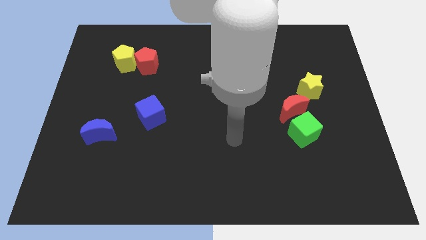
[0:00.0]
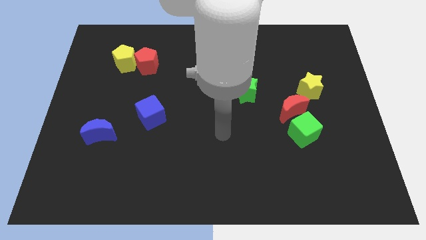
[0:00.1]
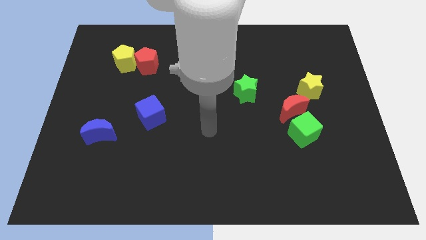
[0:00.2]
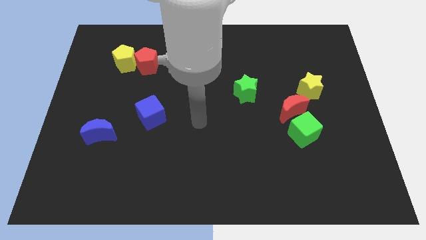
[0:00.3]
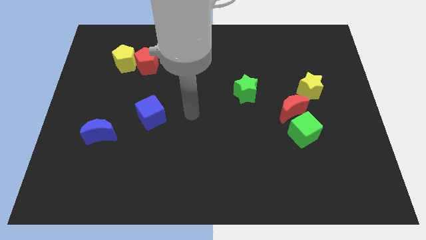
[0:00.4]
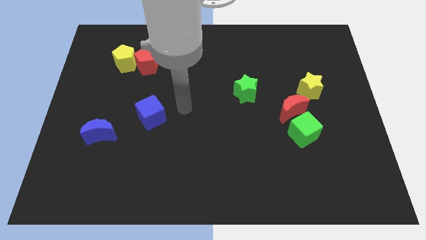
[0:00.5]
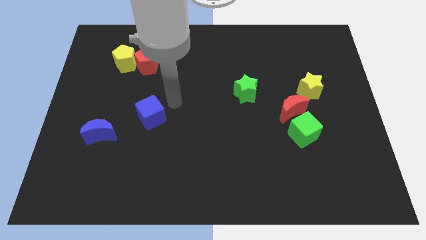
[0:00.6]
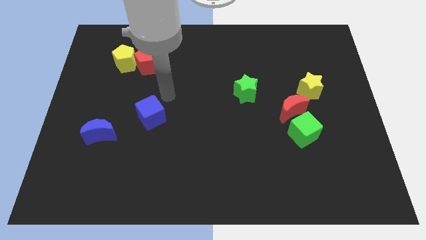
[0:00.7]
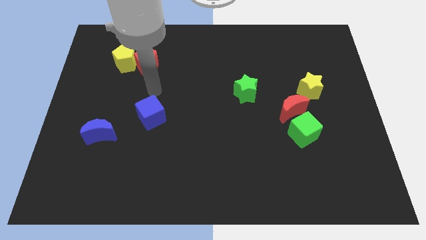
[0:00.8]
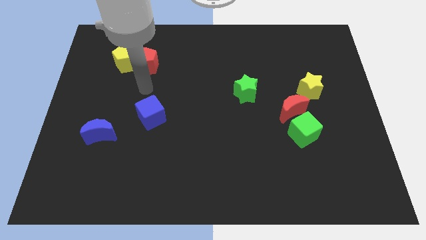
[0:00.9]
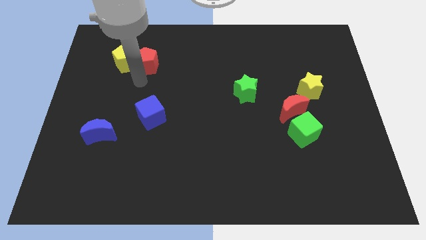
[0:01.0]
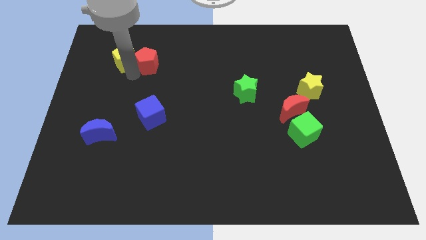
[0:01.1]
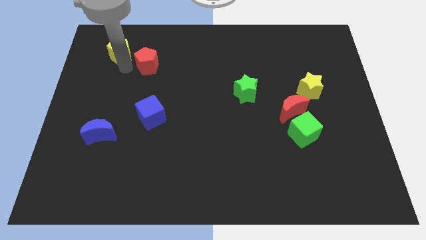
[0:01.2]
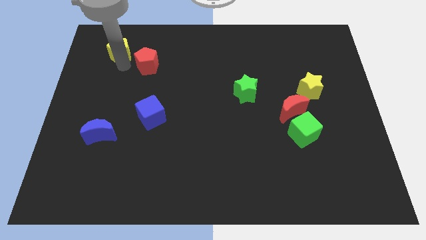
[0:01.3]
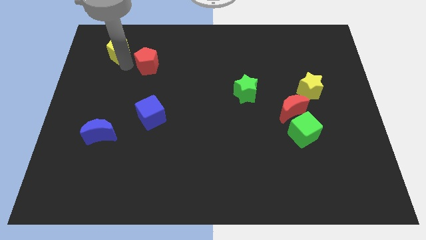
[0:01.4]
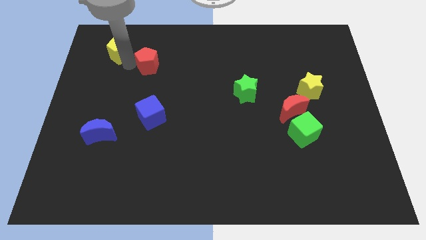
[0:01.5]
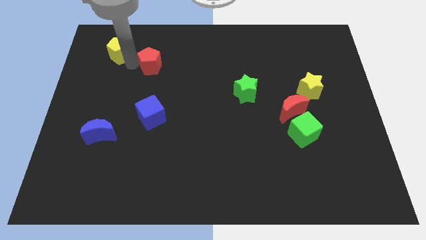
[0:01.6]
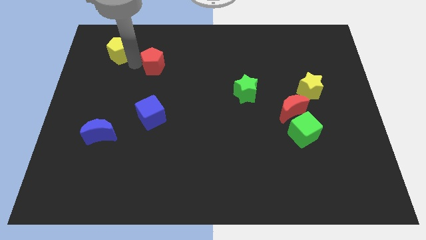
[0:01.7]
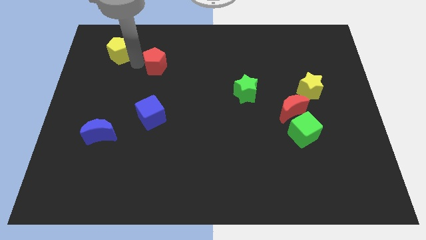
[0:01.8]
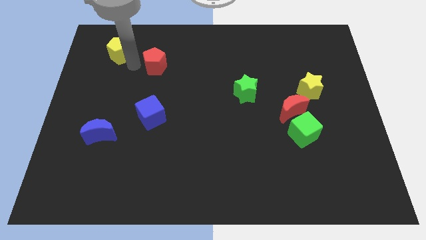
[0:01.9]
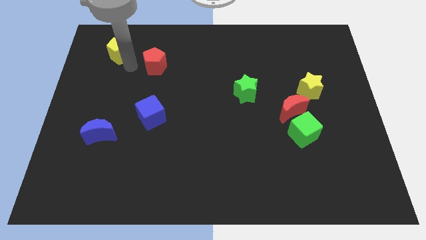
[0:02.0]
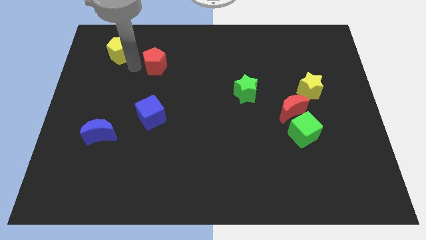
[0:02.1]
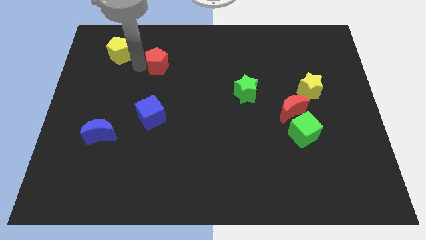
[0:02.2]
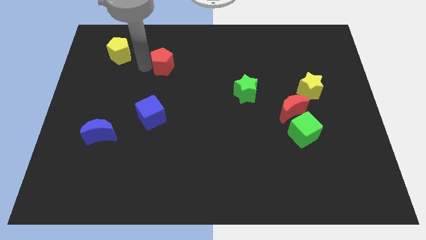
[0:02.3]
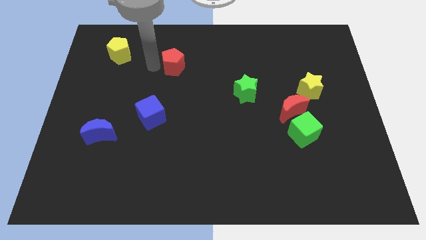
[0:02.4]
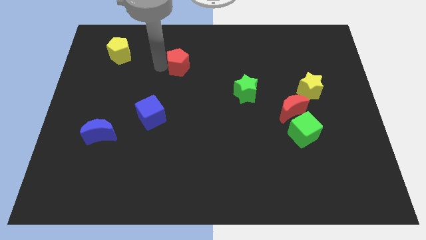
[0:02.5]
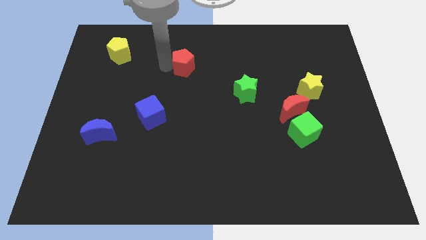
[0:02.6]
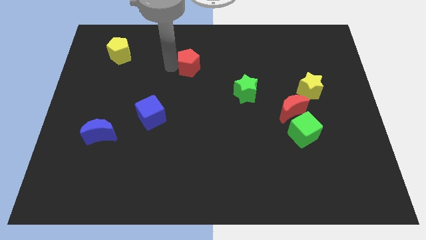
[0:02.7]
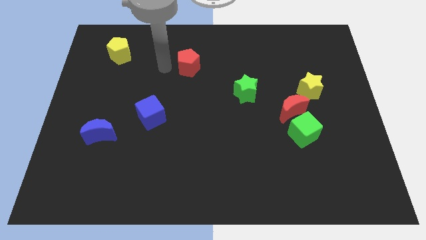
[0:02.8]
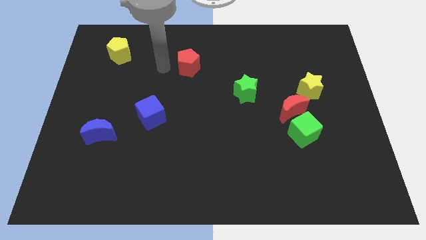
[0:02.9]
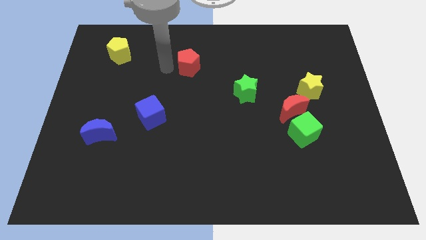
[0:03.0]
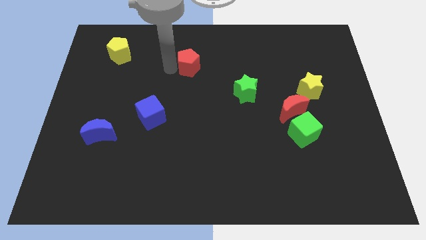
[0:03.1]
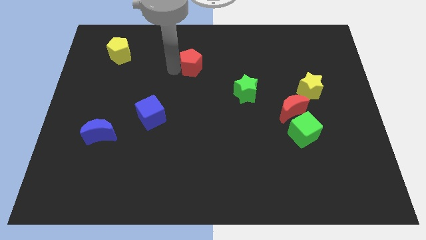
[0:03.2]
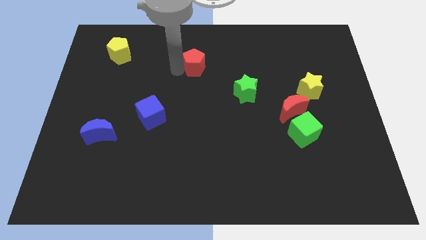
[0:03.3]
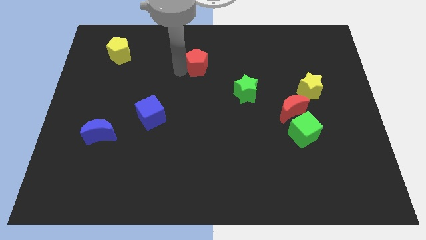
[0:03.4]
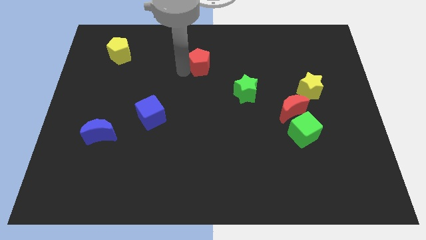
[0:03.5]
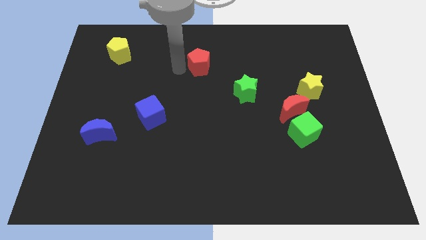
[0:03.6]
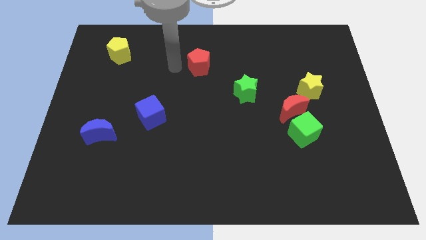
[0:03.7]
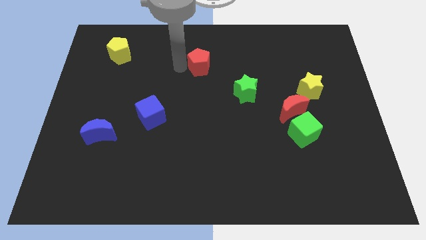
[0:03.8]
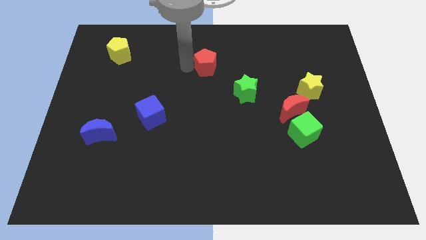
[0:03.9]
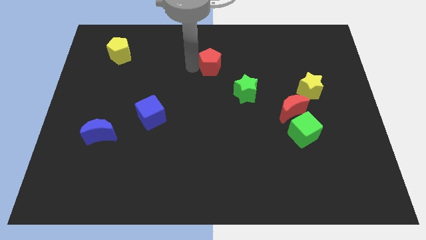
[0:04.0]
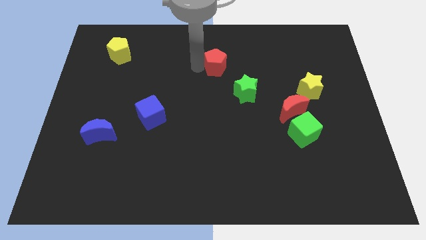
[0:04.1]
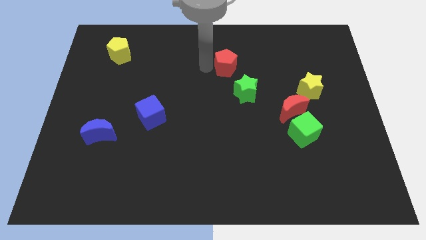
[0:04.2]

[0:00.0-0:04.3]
slide the red pentagon right

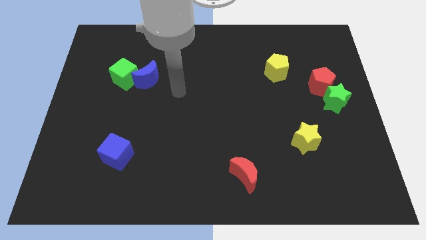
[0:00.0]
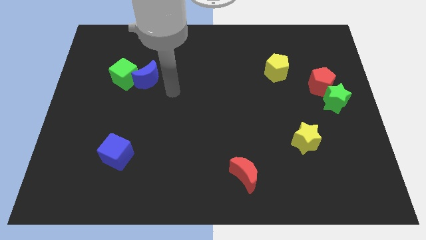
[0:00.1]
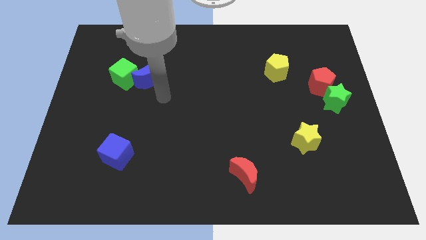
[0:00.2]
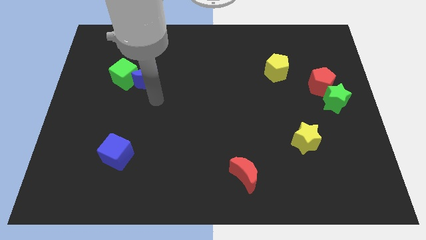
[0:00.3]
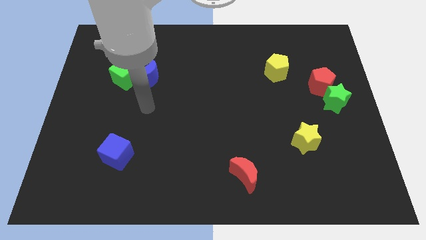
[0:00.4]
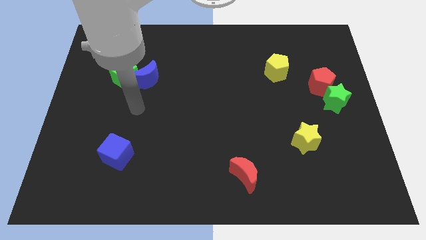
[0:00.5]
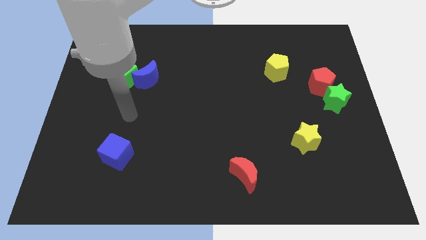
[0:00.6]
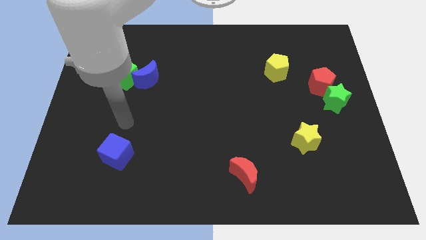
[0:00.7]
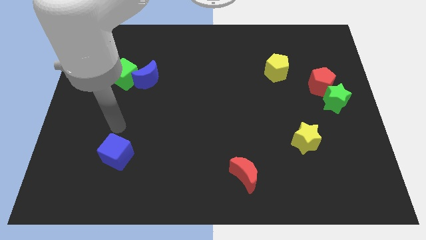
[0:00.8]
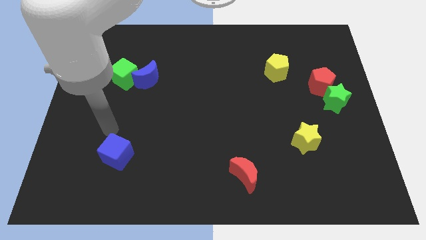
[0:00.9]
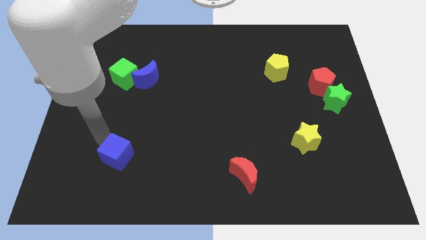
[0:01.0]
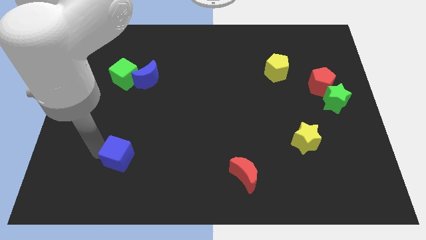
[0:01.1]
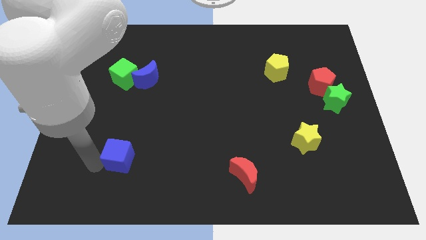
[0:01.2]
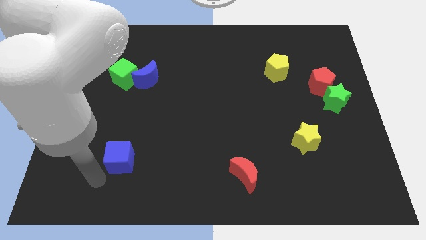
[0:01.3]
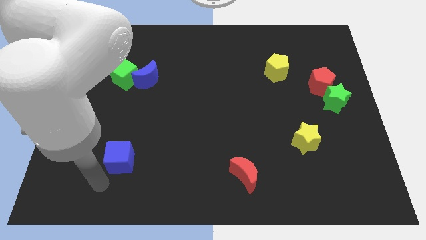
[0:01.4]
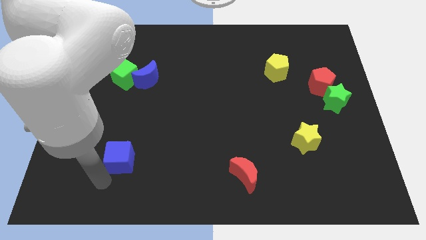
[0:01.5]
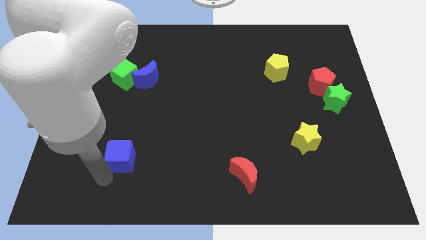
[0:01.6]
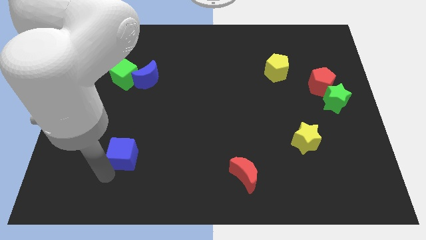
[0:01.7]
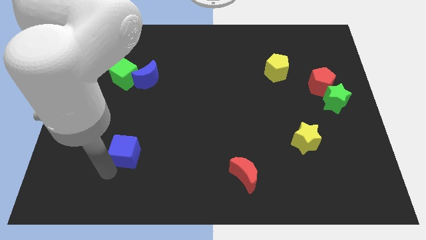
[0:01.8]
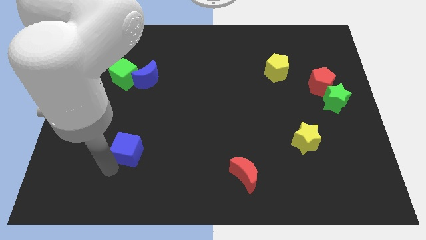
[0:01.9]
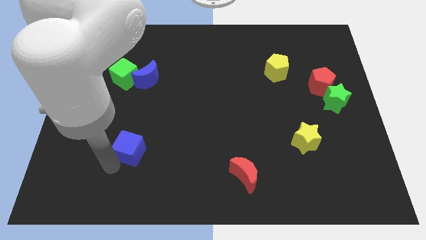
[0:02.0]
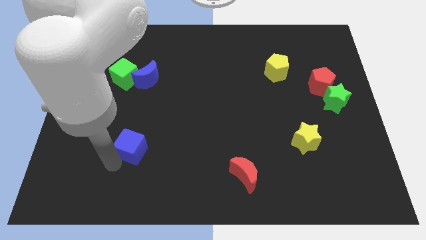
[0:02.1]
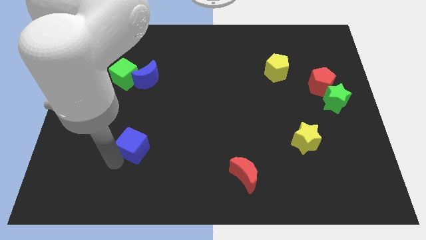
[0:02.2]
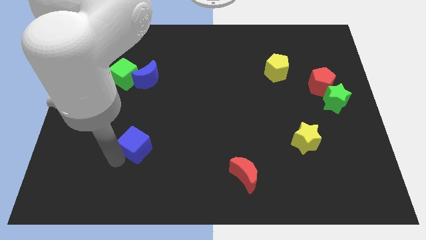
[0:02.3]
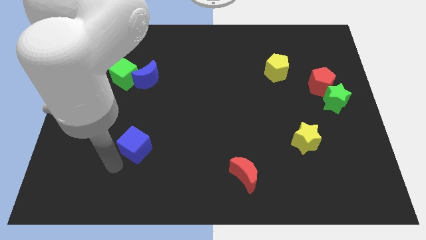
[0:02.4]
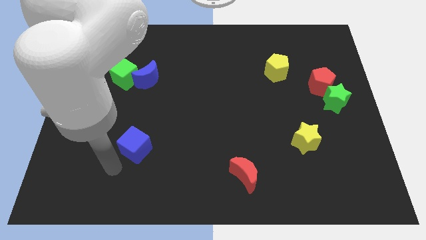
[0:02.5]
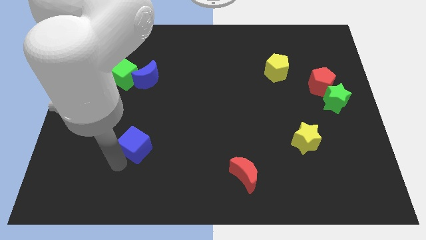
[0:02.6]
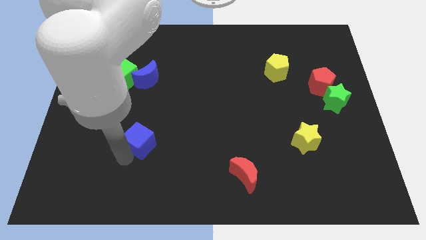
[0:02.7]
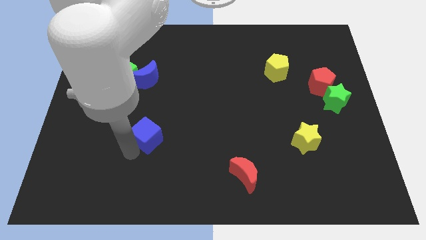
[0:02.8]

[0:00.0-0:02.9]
slide the blue cube a bit up and then right

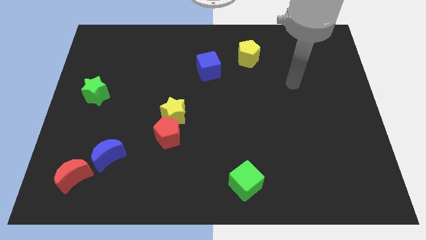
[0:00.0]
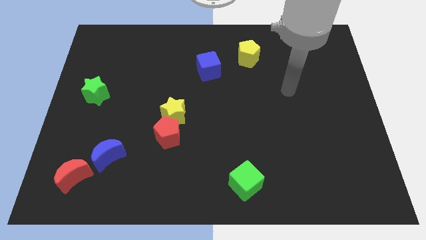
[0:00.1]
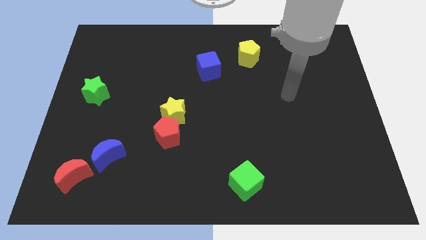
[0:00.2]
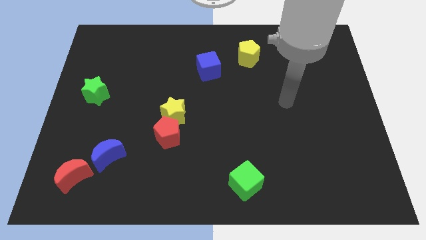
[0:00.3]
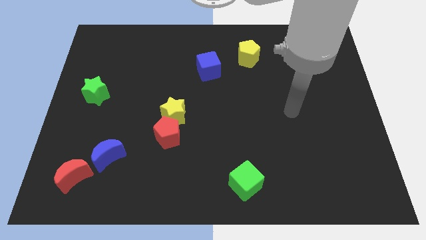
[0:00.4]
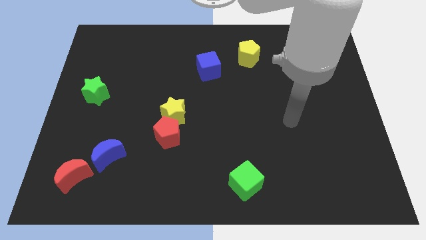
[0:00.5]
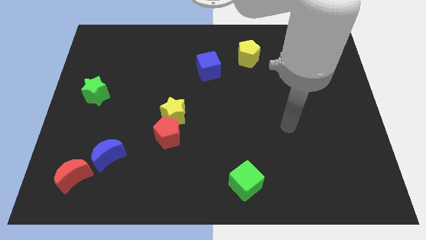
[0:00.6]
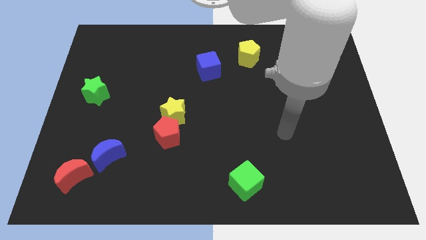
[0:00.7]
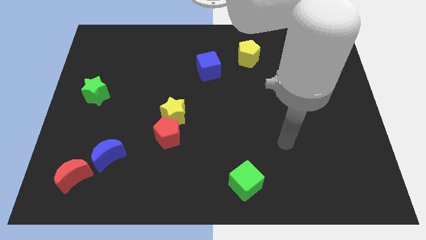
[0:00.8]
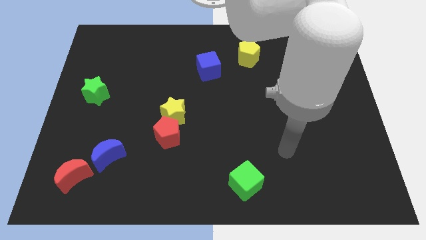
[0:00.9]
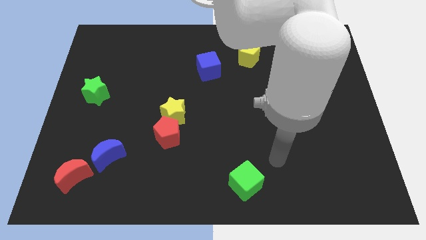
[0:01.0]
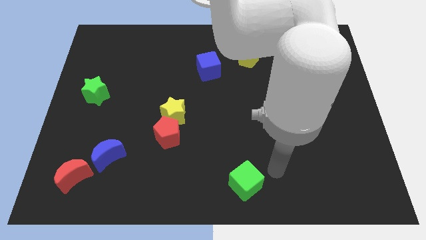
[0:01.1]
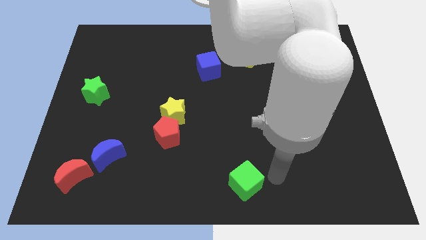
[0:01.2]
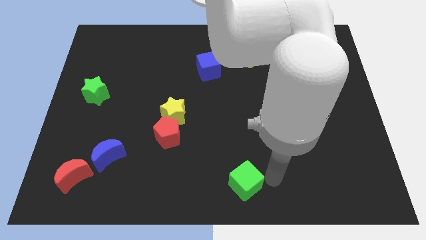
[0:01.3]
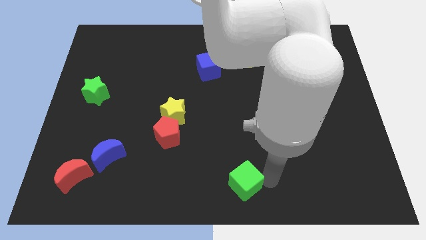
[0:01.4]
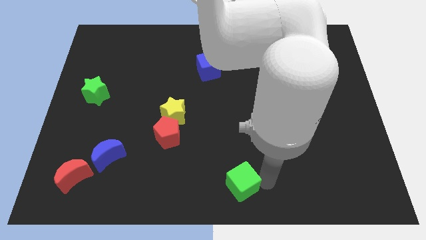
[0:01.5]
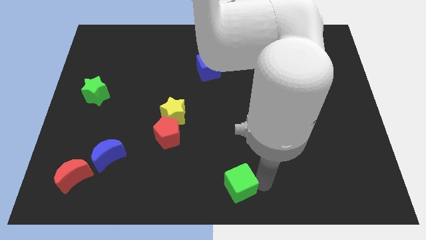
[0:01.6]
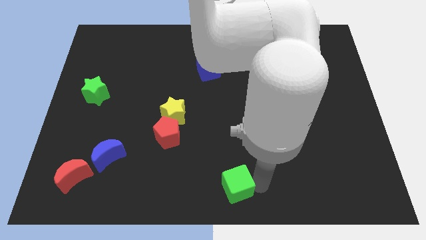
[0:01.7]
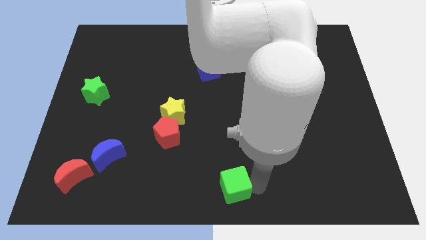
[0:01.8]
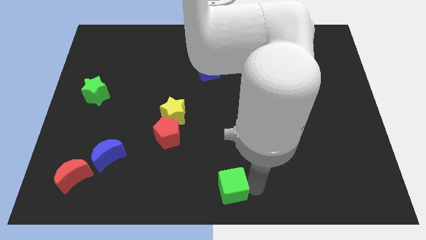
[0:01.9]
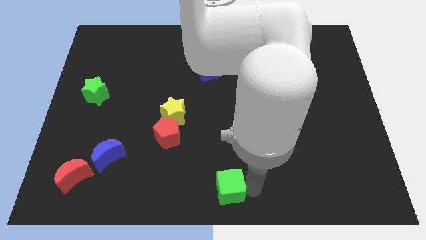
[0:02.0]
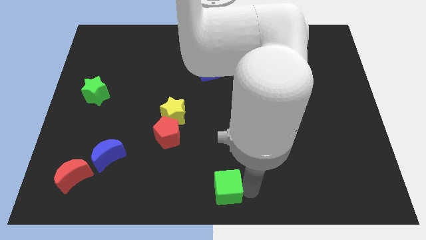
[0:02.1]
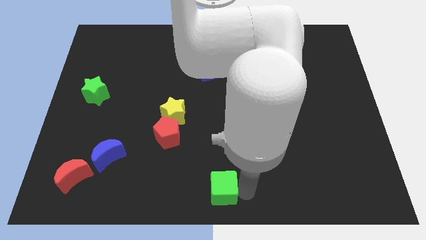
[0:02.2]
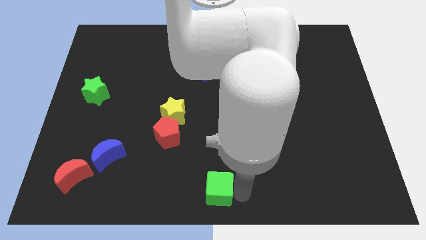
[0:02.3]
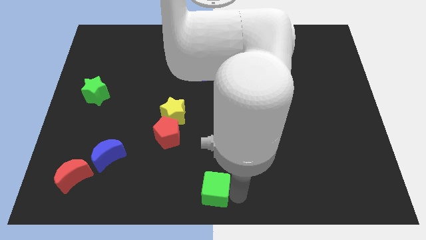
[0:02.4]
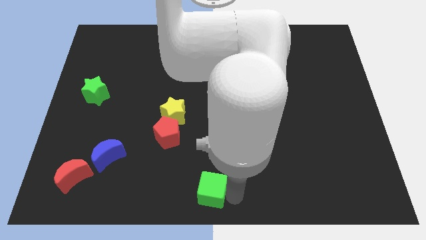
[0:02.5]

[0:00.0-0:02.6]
slide the green cube slightly to the left
